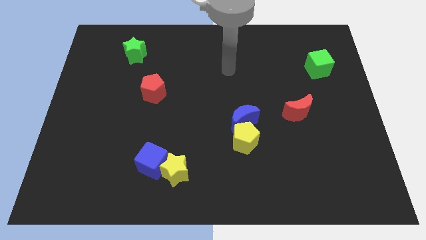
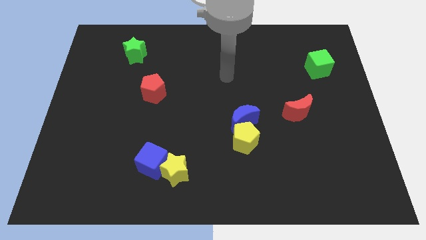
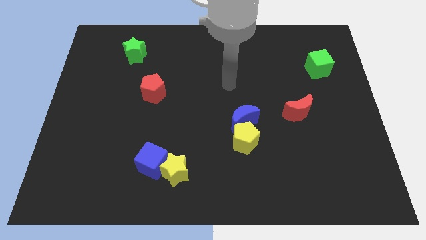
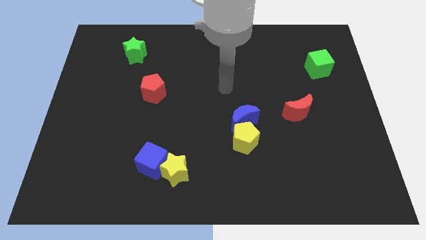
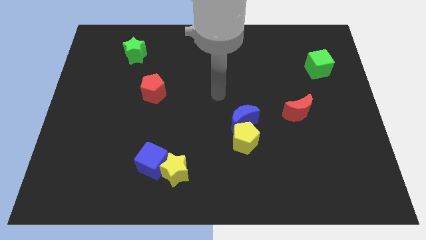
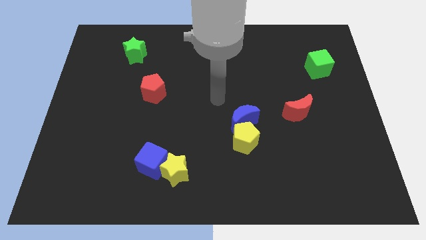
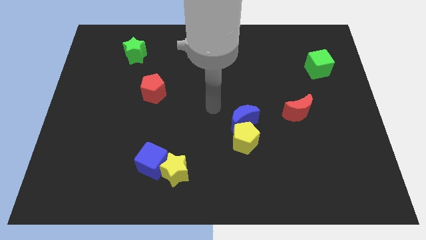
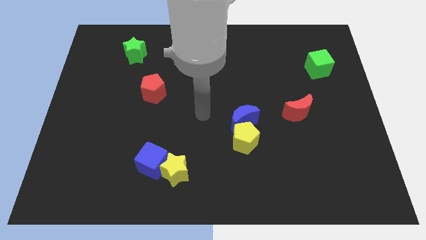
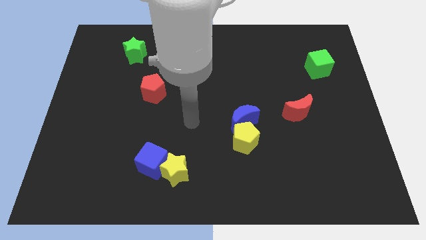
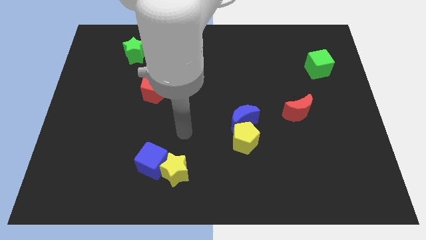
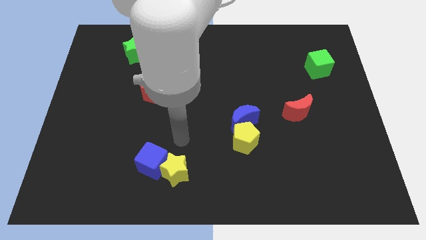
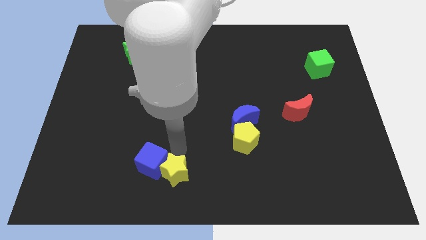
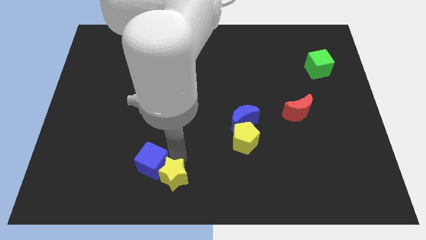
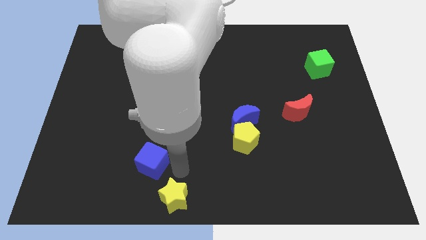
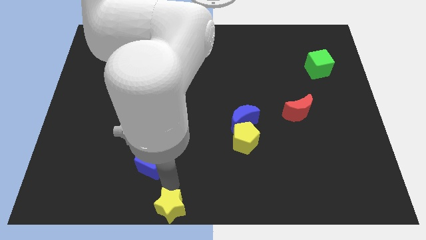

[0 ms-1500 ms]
pull the blue cube apart from the yellow star

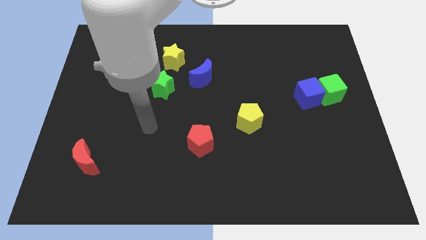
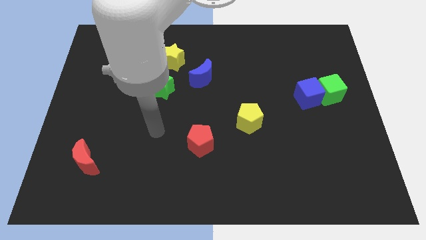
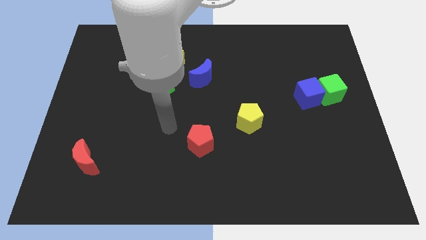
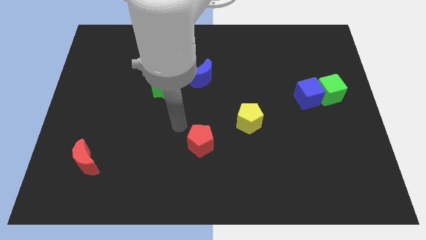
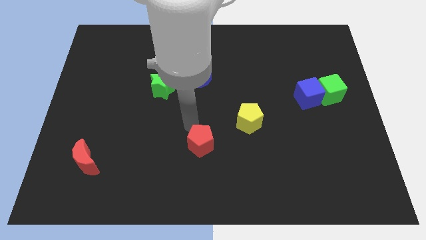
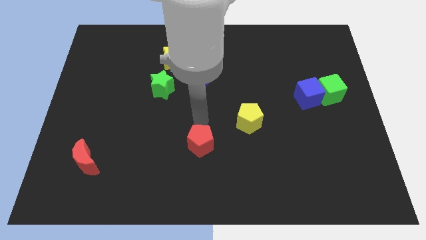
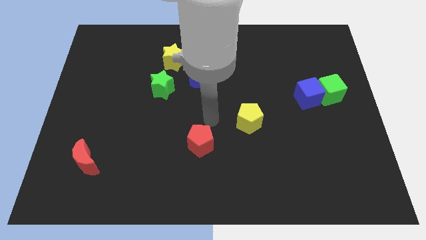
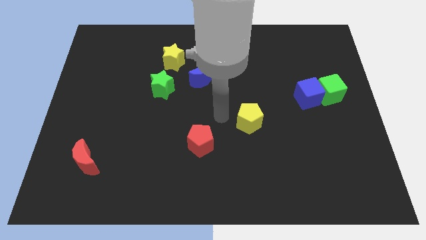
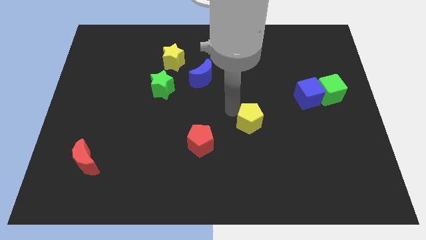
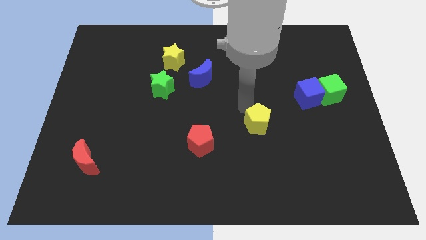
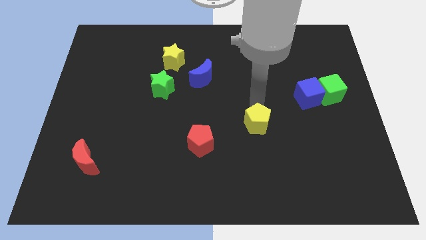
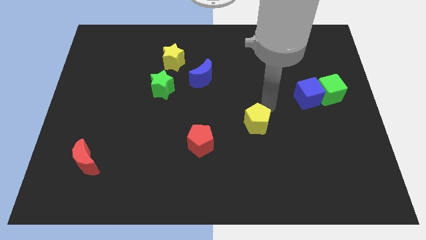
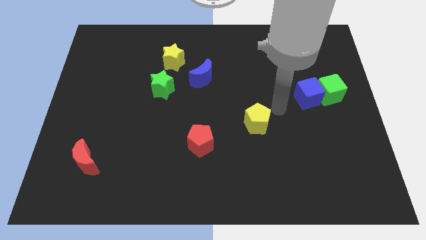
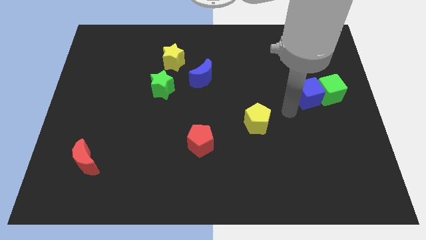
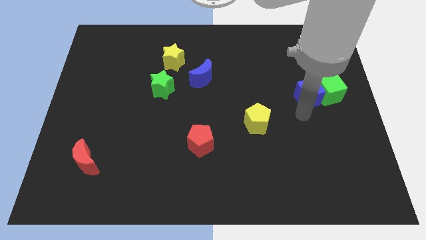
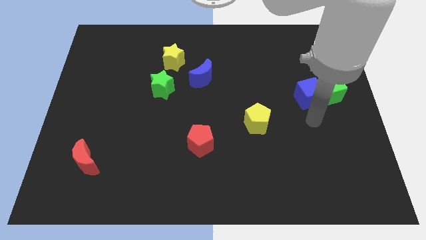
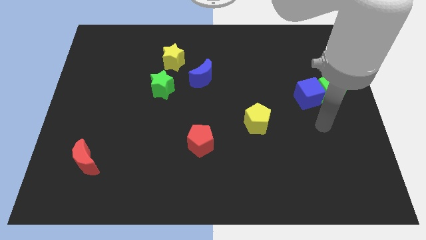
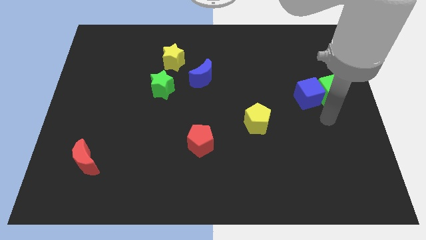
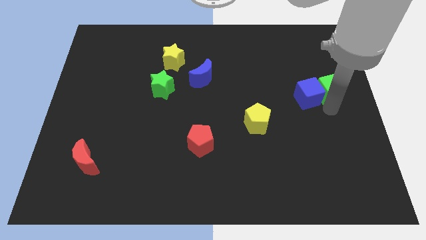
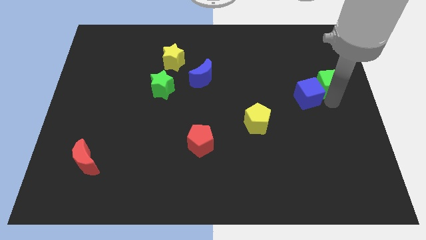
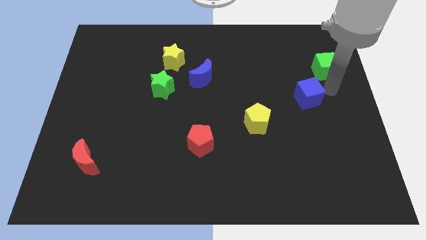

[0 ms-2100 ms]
move the blue cube away from the green cube

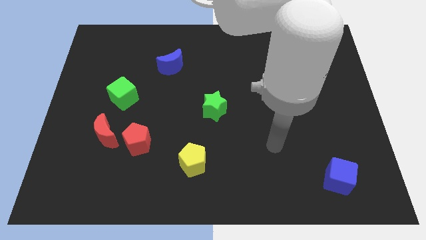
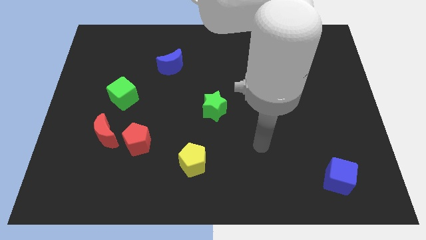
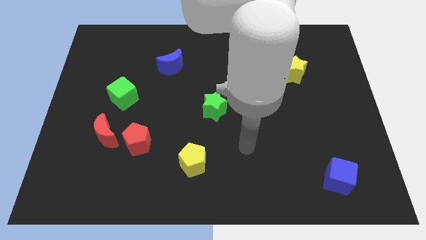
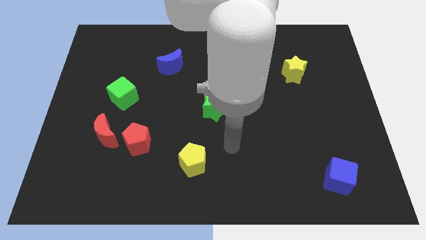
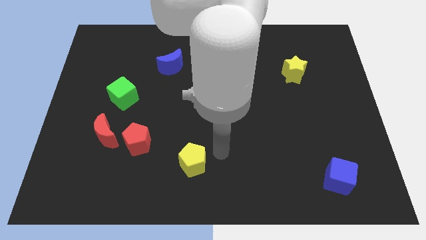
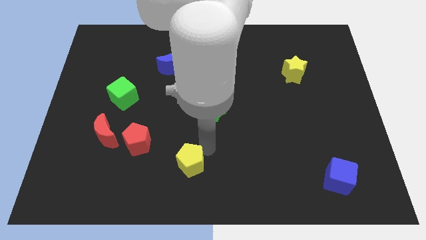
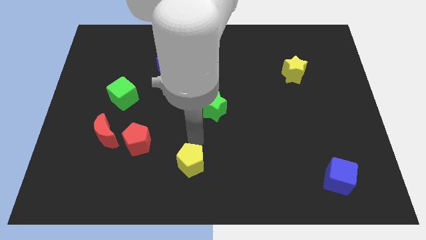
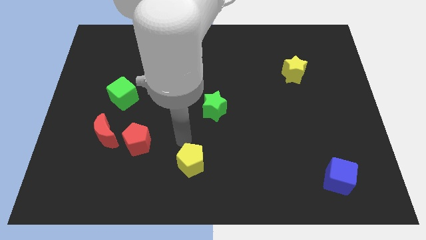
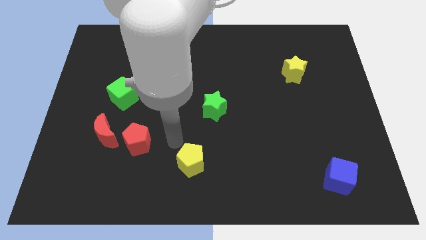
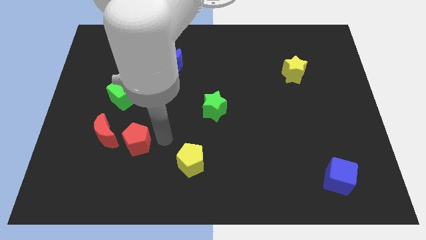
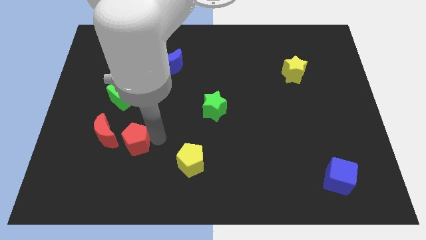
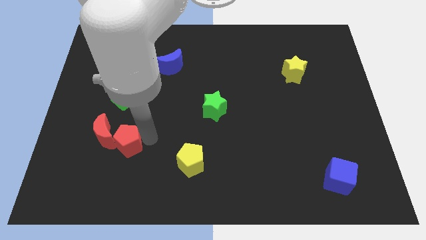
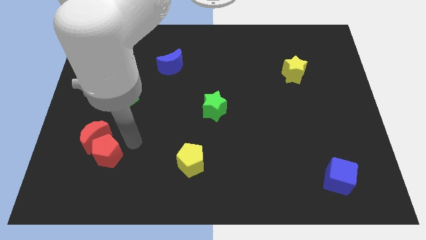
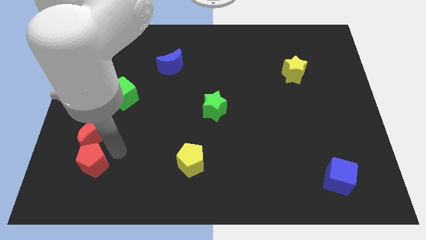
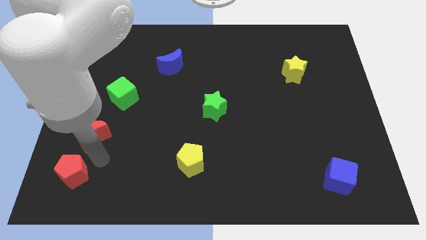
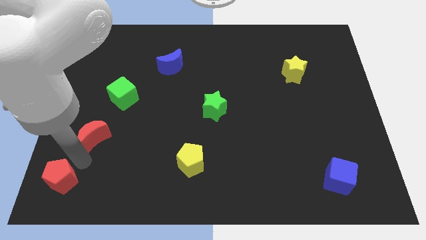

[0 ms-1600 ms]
move the red moon away from the red pentagon

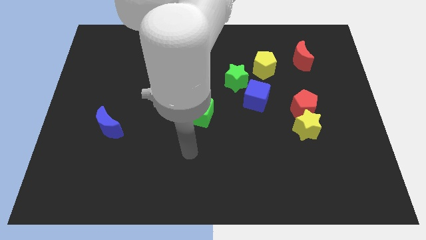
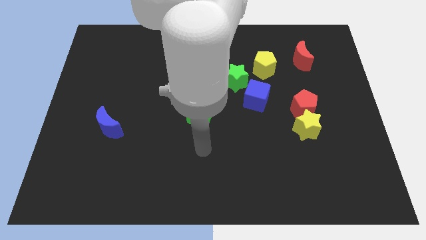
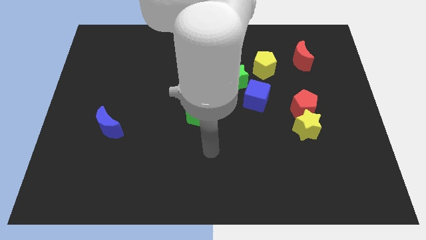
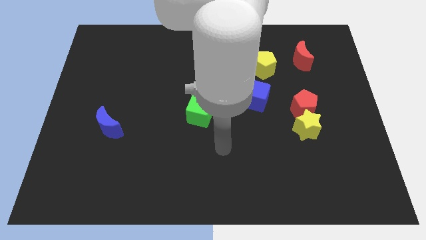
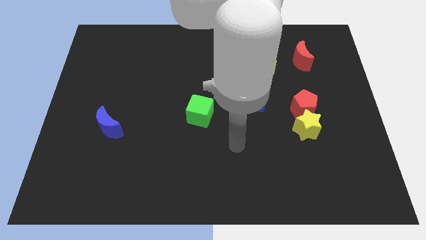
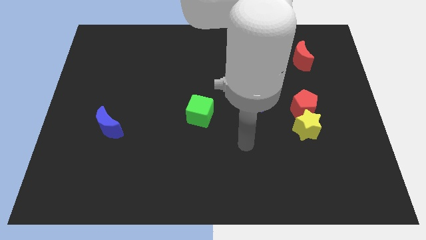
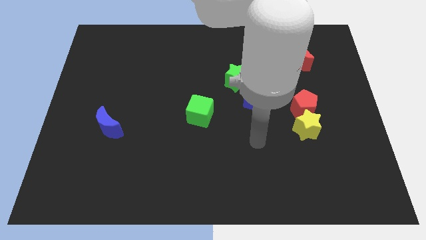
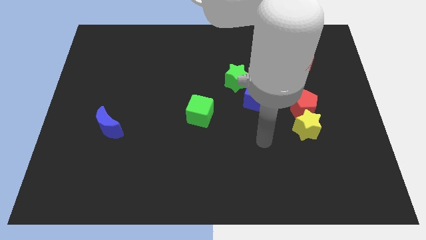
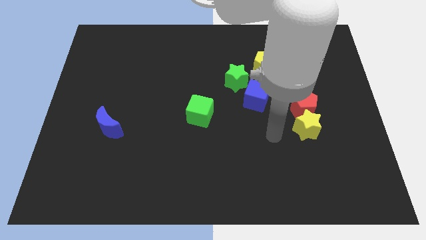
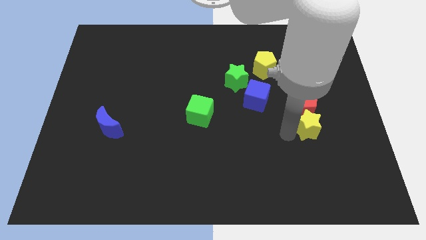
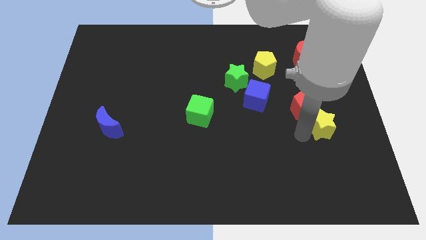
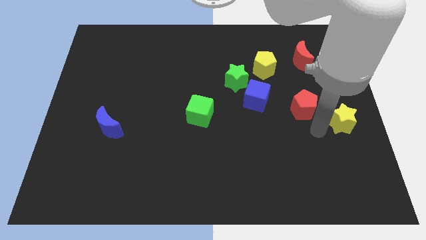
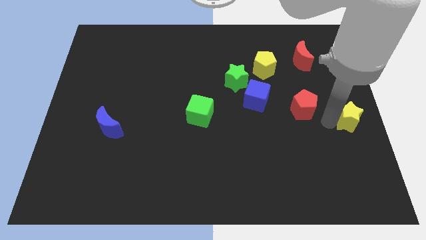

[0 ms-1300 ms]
pull the red pentagon apart from the yellow star

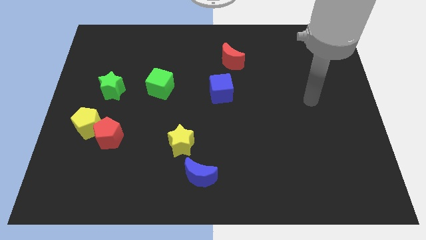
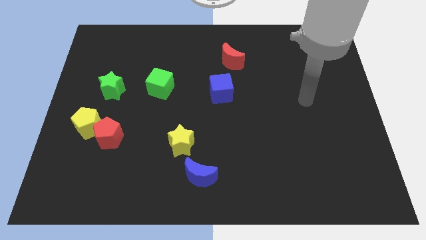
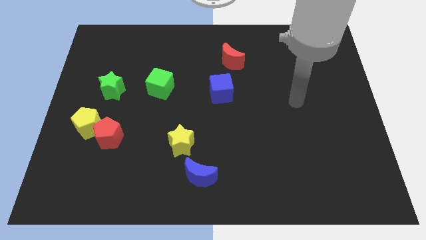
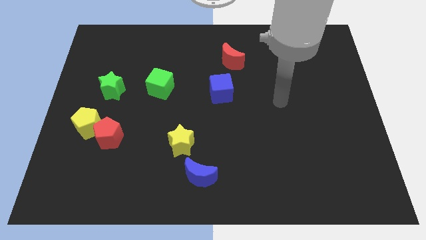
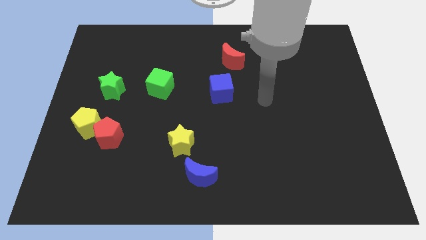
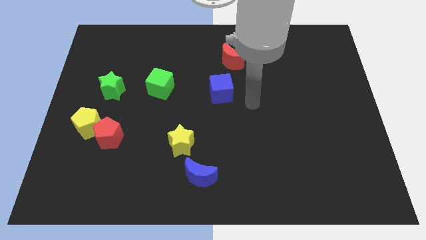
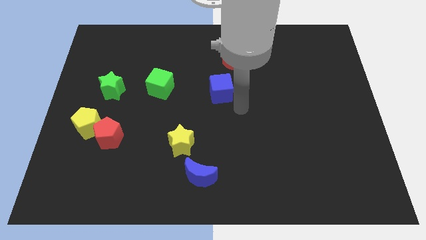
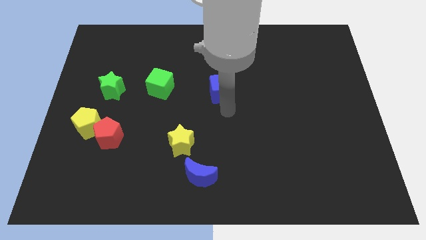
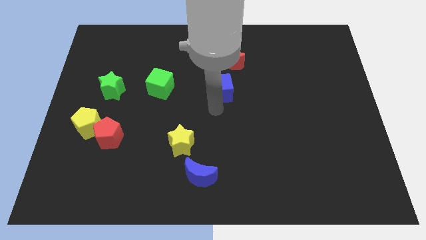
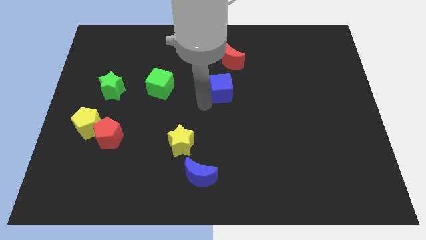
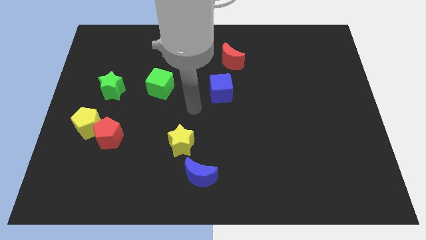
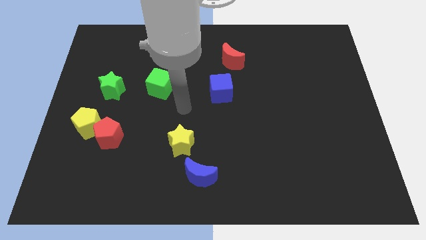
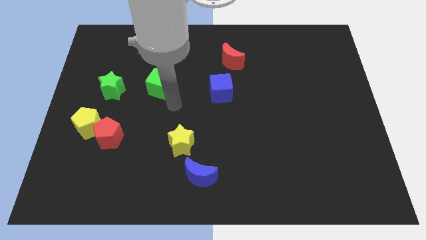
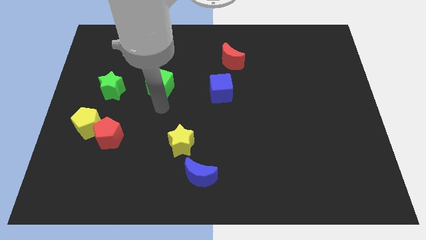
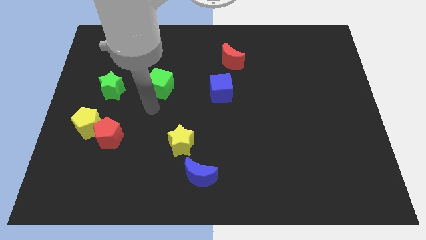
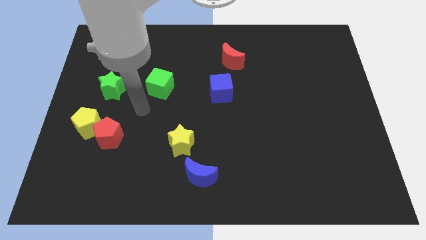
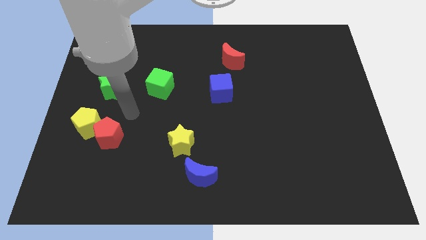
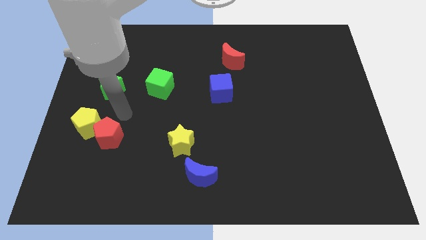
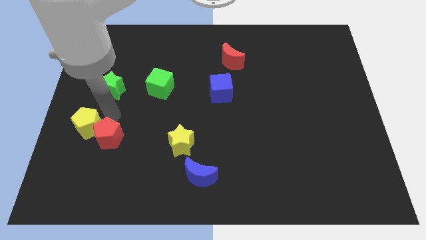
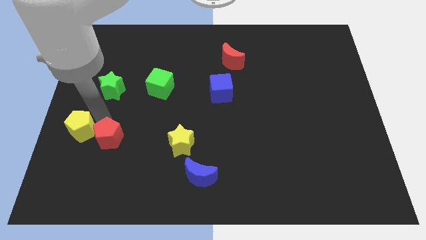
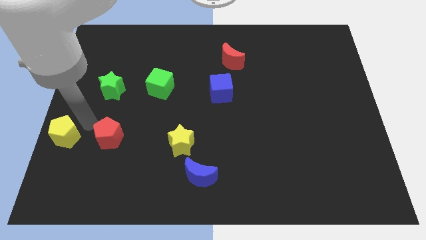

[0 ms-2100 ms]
separate the red pentagon from the yellow pentagon

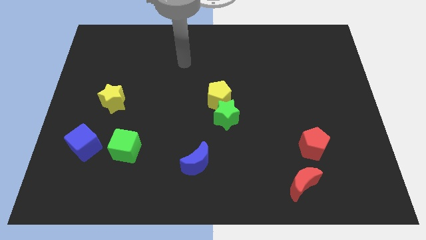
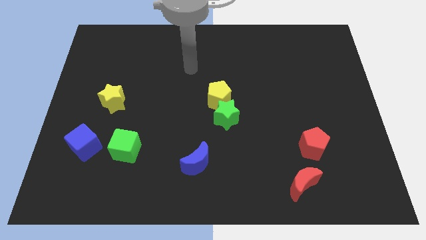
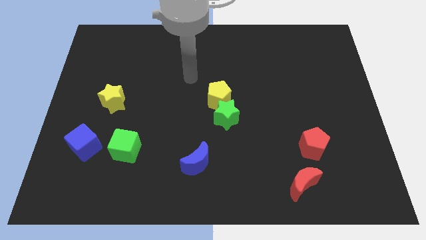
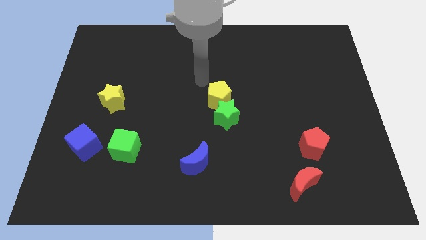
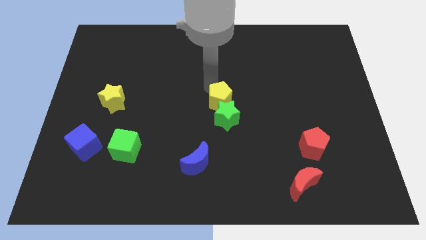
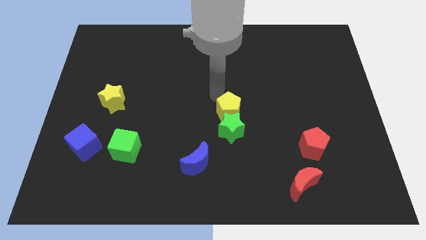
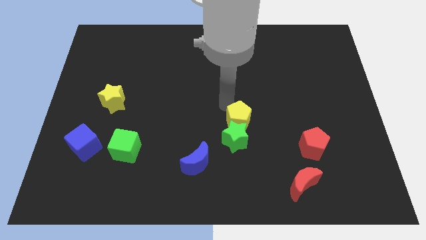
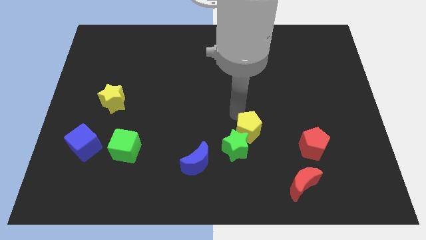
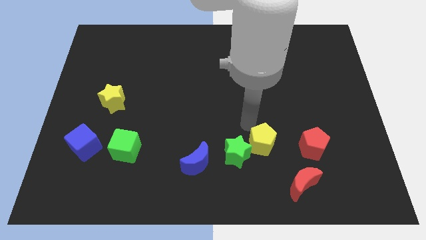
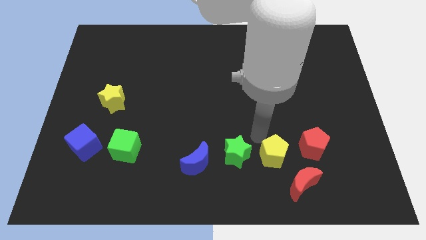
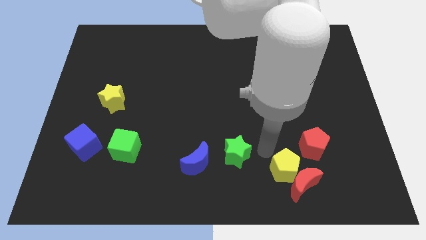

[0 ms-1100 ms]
move the green star away from the yellow pentagon
